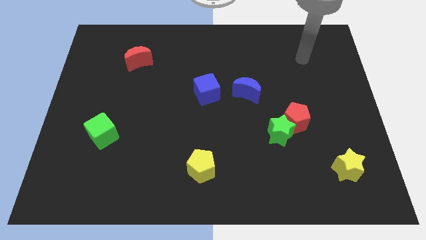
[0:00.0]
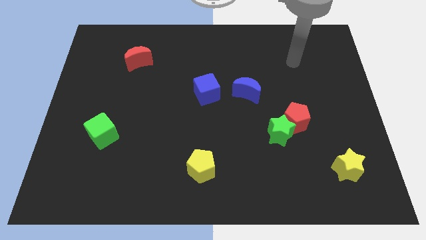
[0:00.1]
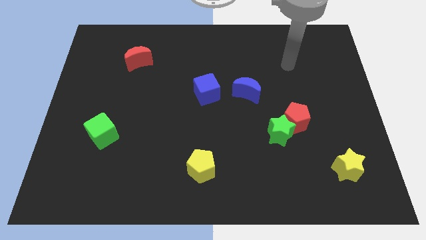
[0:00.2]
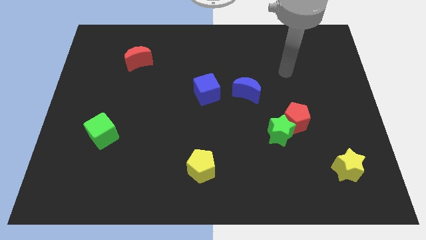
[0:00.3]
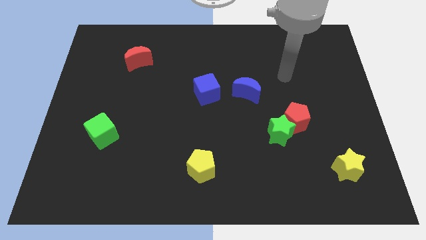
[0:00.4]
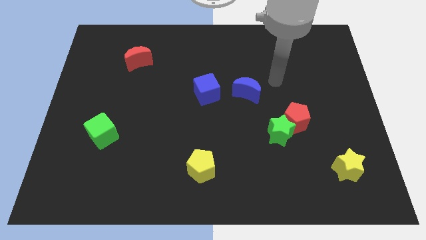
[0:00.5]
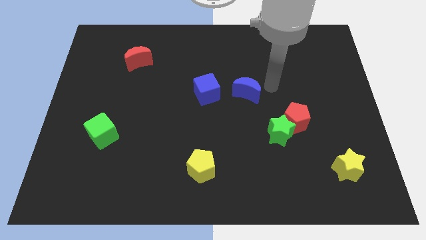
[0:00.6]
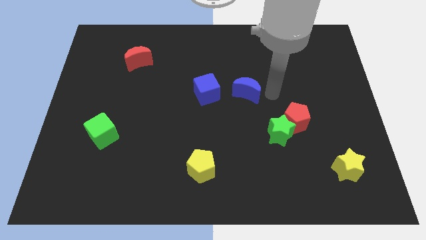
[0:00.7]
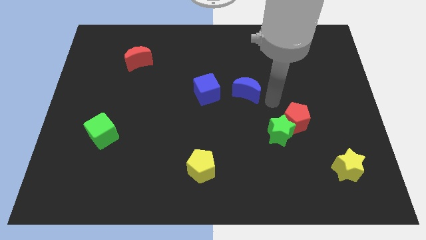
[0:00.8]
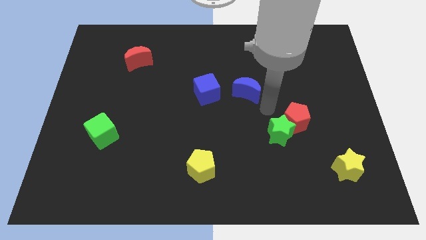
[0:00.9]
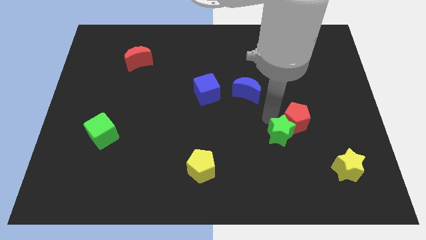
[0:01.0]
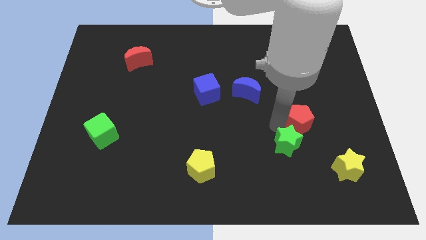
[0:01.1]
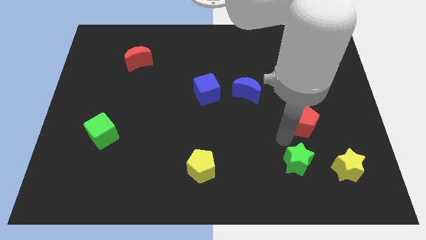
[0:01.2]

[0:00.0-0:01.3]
move the red pentagon away from the green star

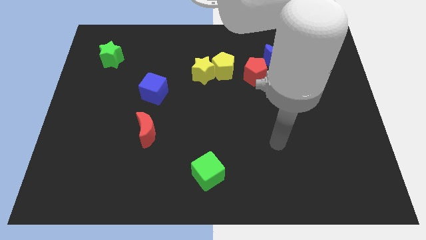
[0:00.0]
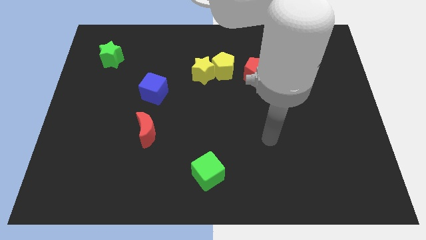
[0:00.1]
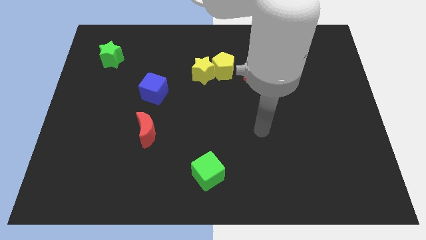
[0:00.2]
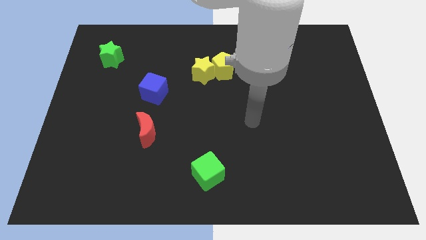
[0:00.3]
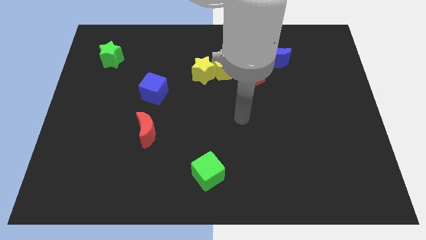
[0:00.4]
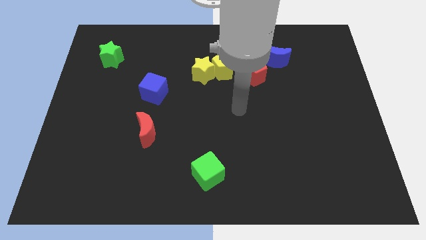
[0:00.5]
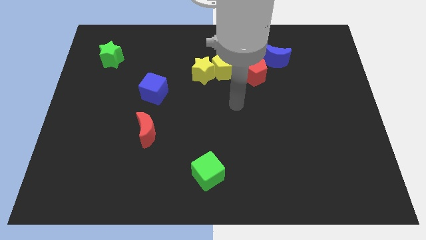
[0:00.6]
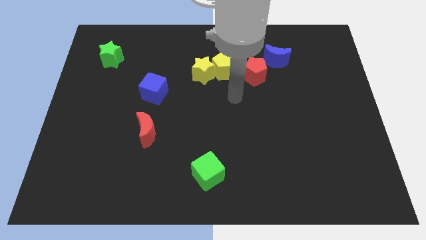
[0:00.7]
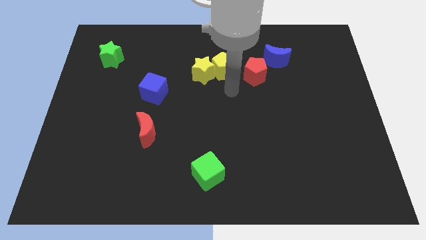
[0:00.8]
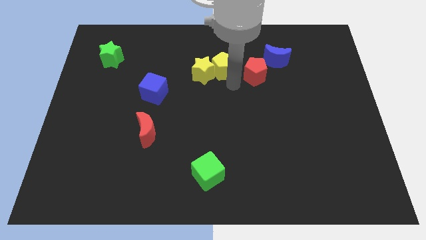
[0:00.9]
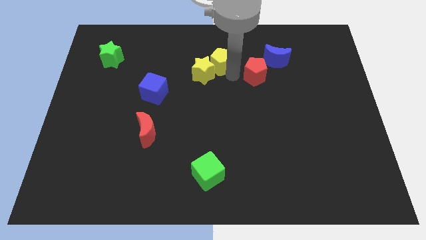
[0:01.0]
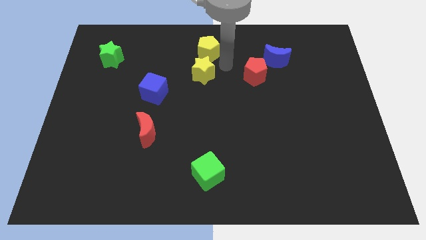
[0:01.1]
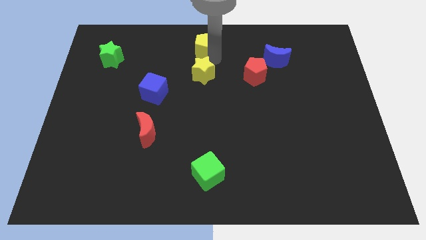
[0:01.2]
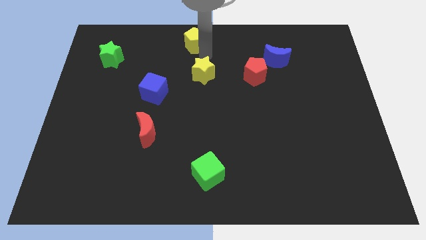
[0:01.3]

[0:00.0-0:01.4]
separate the yellow star from the yellow pentagon

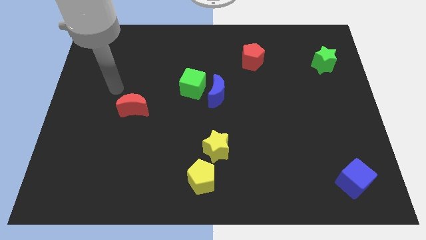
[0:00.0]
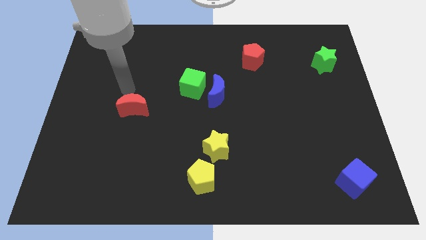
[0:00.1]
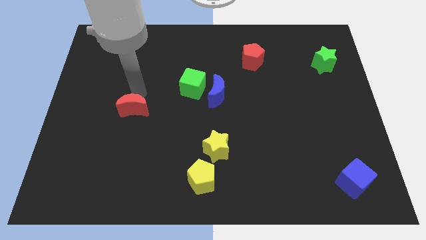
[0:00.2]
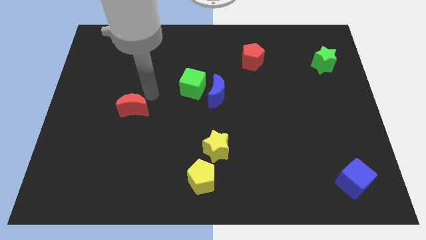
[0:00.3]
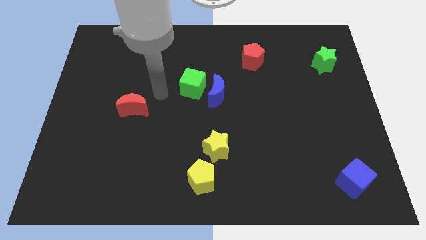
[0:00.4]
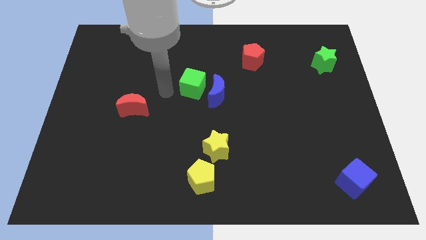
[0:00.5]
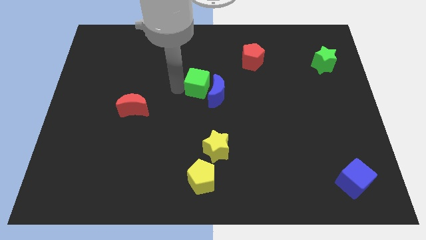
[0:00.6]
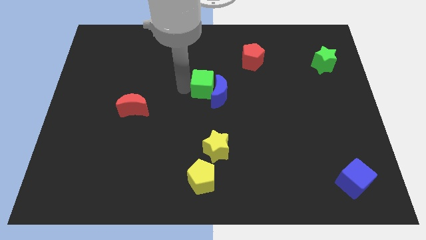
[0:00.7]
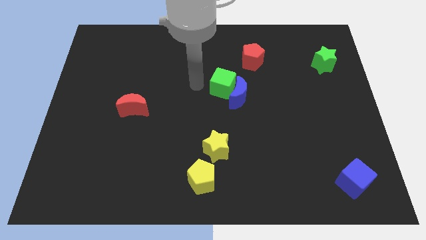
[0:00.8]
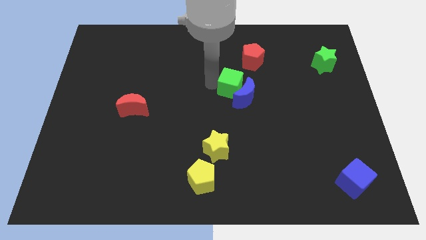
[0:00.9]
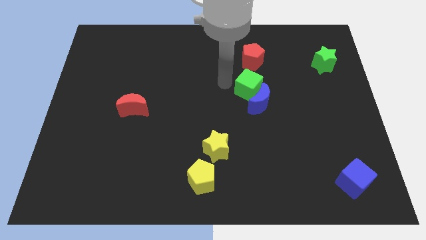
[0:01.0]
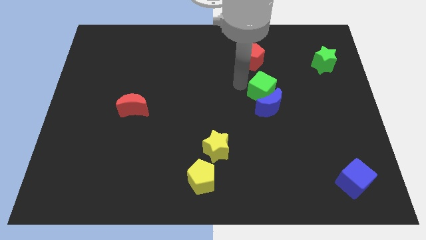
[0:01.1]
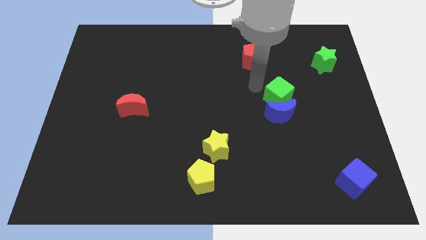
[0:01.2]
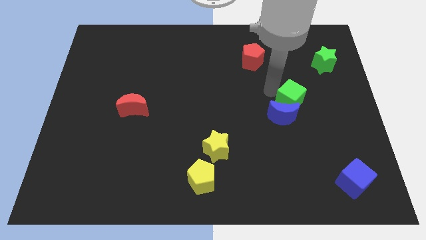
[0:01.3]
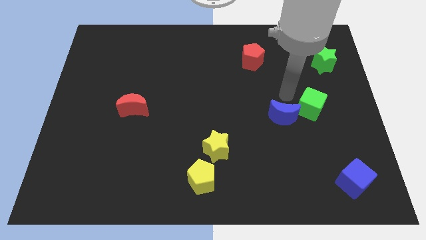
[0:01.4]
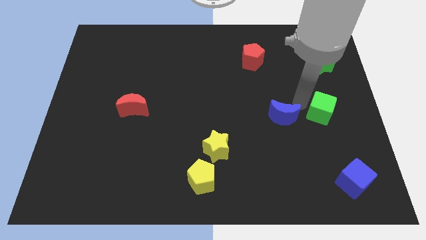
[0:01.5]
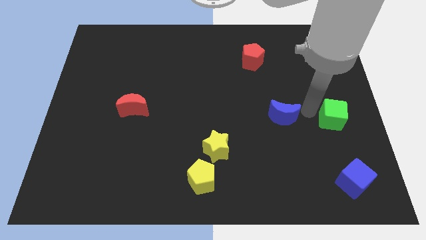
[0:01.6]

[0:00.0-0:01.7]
separate the blue moon from the green cube

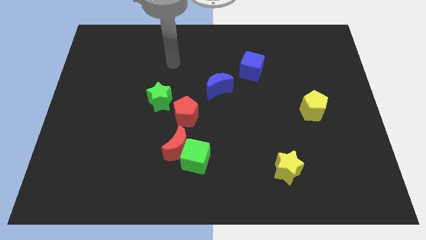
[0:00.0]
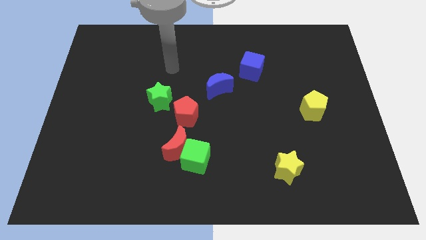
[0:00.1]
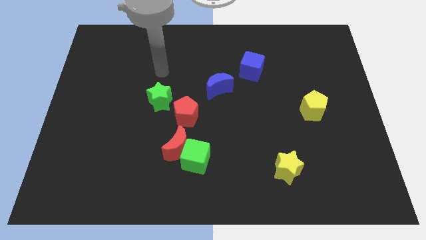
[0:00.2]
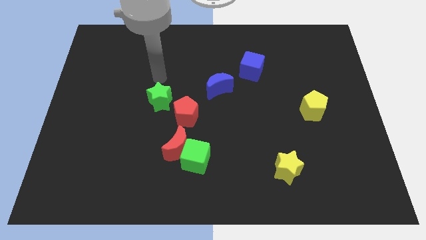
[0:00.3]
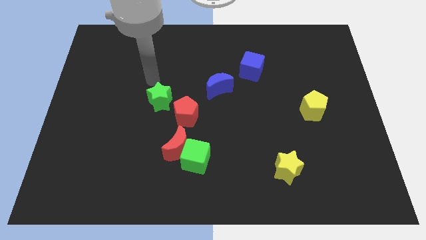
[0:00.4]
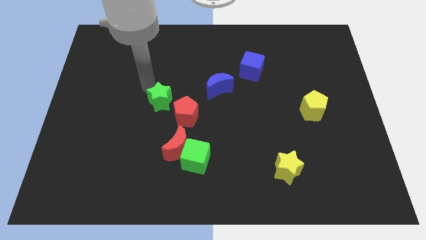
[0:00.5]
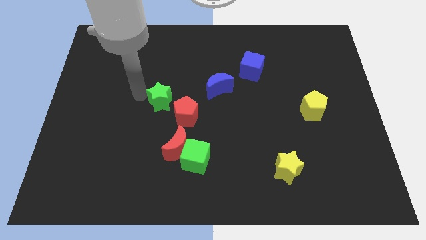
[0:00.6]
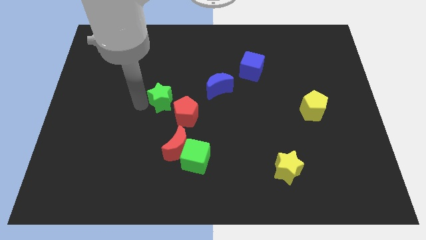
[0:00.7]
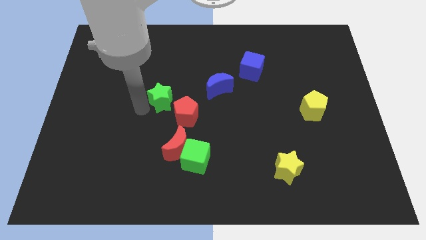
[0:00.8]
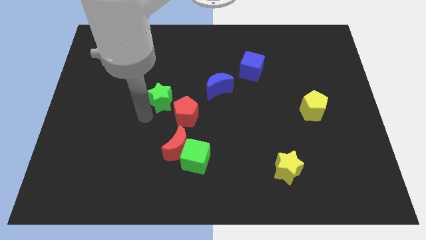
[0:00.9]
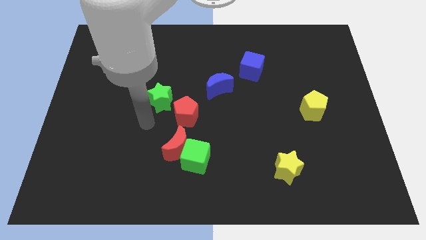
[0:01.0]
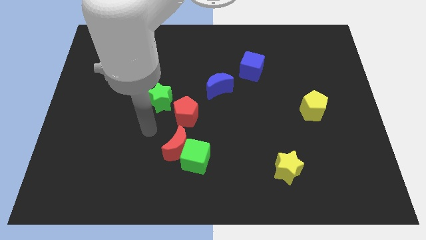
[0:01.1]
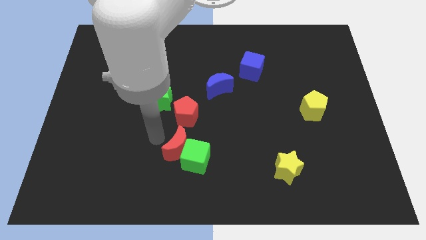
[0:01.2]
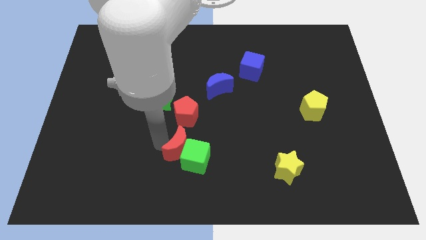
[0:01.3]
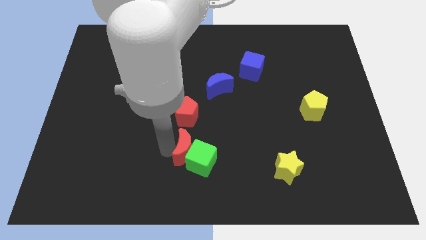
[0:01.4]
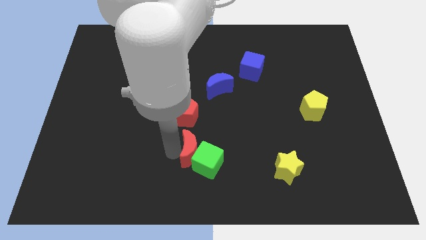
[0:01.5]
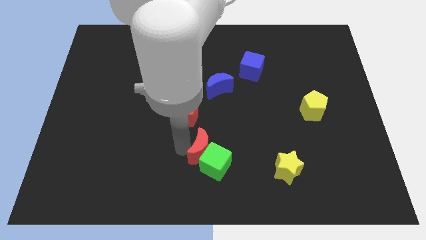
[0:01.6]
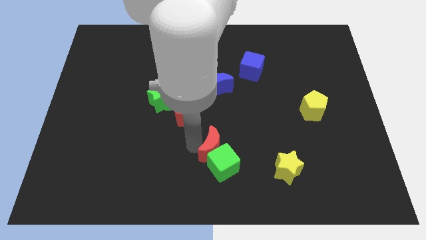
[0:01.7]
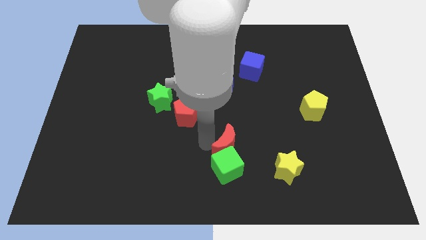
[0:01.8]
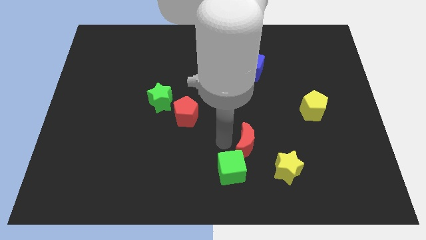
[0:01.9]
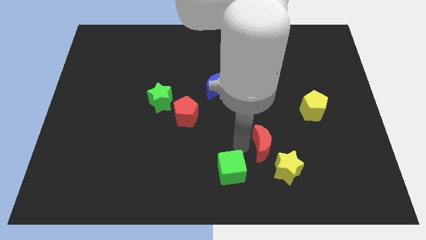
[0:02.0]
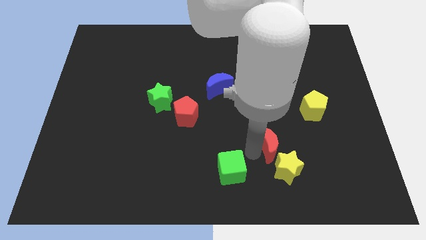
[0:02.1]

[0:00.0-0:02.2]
move the green cube away from the red moon

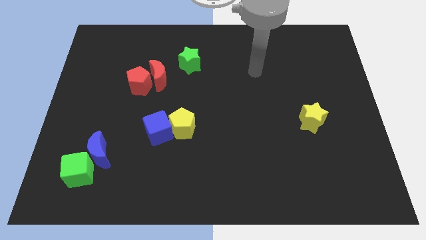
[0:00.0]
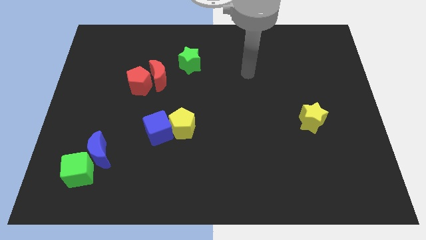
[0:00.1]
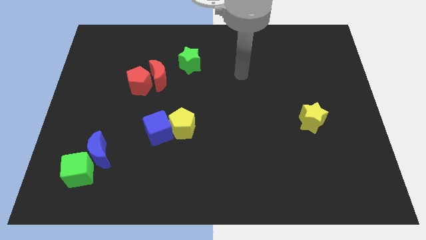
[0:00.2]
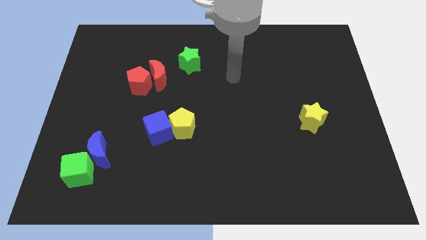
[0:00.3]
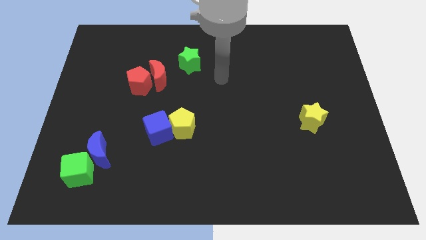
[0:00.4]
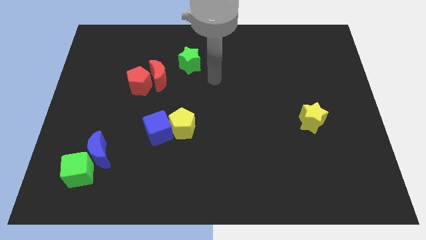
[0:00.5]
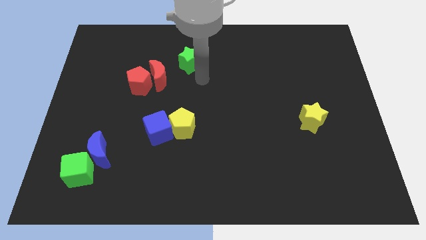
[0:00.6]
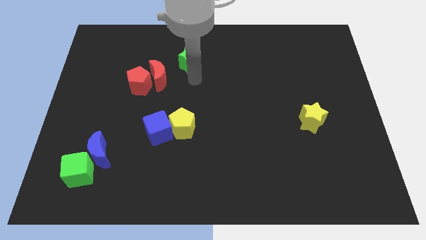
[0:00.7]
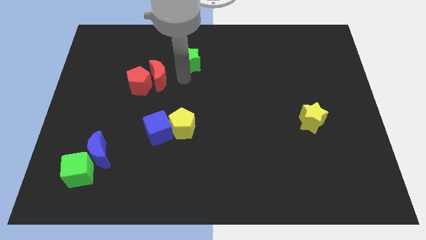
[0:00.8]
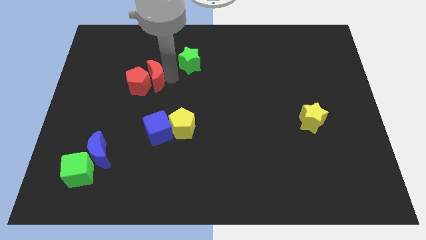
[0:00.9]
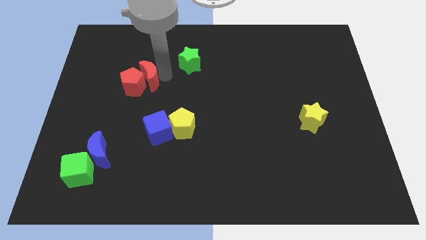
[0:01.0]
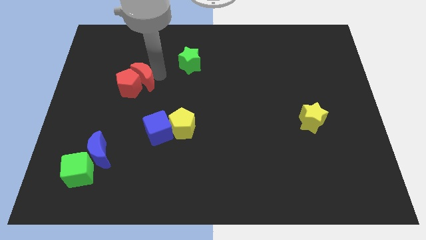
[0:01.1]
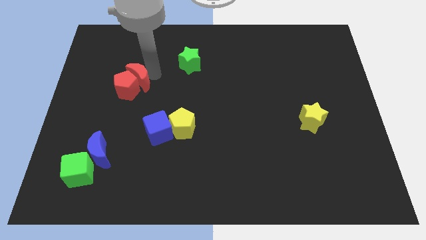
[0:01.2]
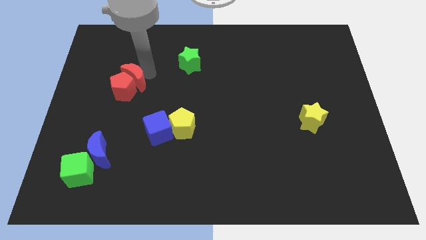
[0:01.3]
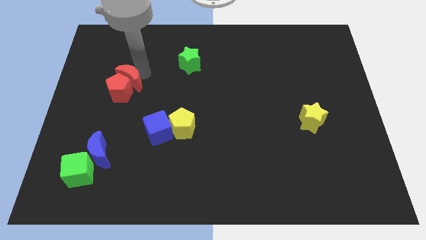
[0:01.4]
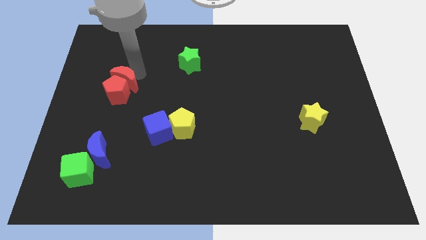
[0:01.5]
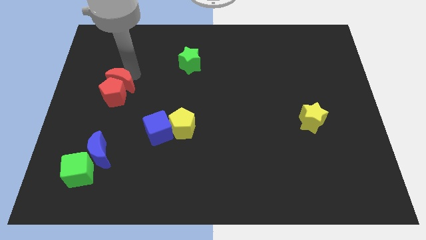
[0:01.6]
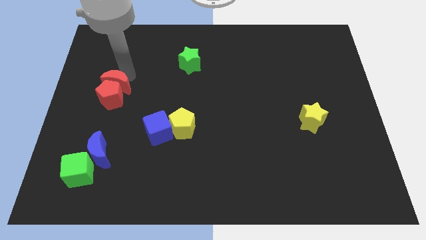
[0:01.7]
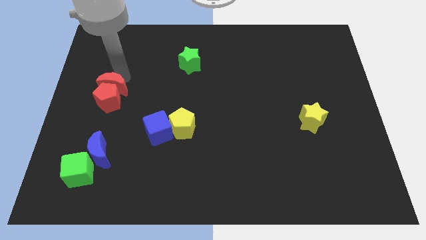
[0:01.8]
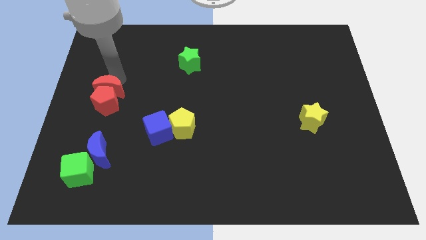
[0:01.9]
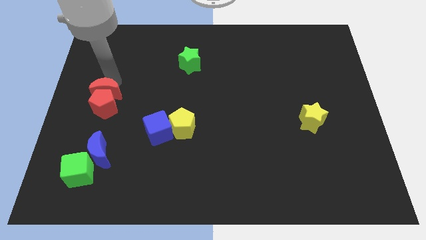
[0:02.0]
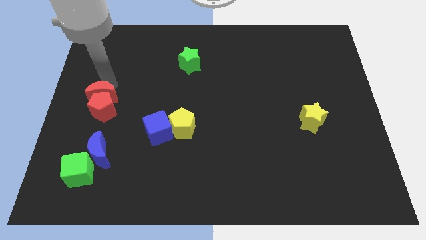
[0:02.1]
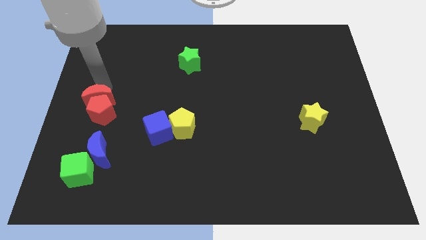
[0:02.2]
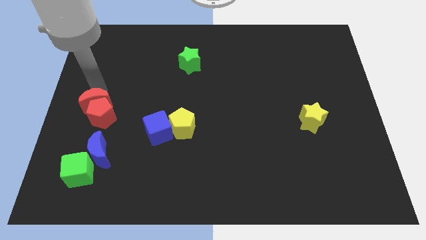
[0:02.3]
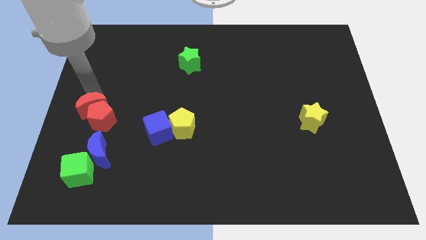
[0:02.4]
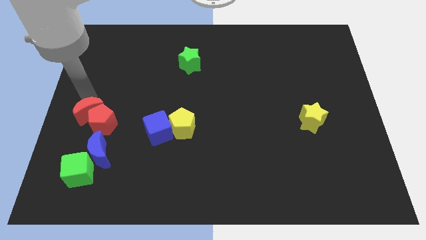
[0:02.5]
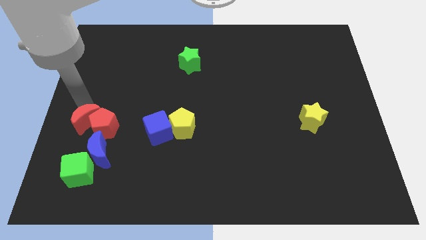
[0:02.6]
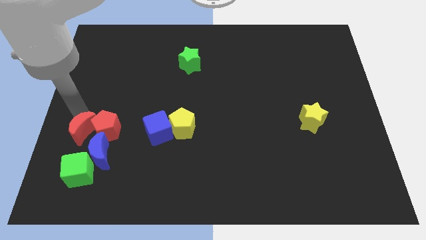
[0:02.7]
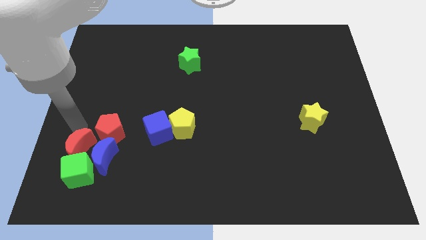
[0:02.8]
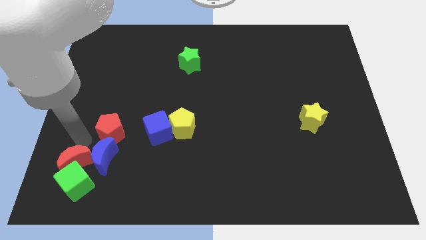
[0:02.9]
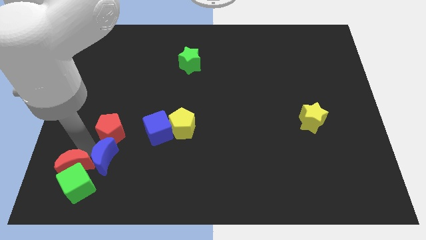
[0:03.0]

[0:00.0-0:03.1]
pull the red pentagon apart from the red moon
